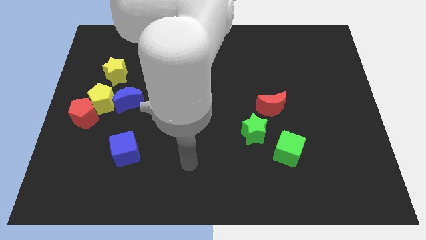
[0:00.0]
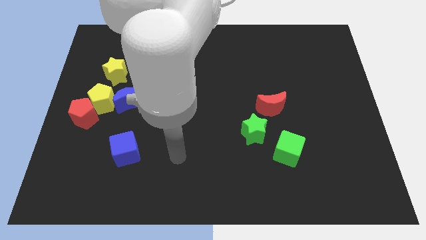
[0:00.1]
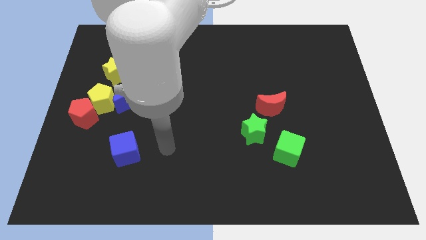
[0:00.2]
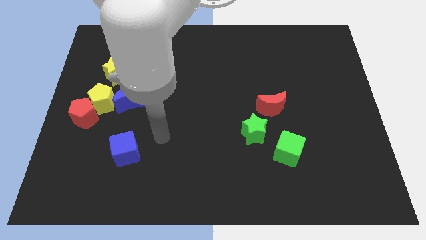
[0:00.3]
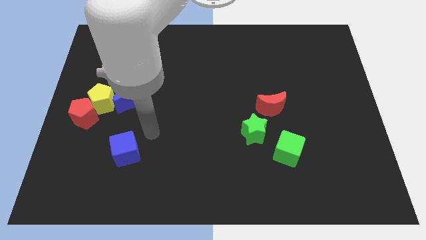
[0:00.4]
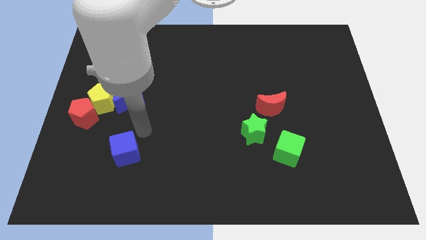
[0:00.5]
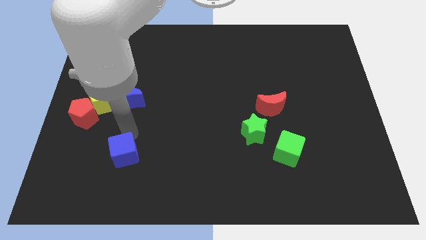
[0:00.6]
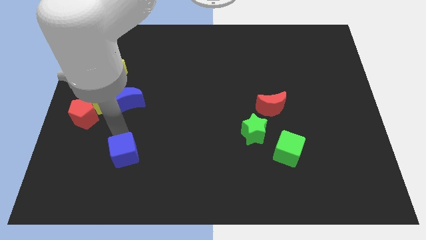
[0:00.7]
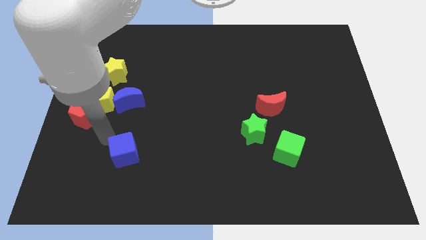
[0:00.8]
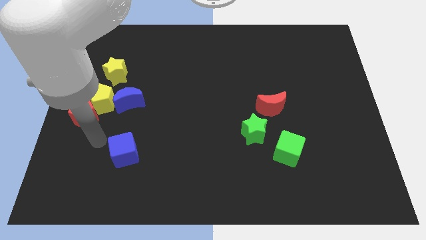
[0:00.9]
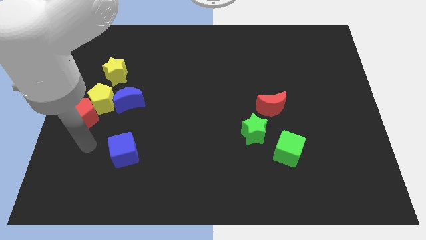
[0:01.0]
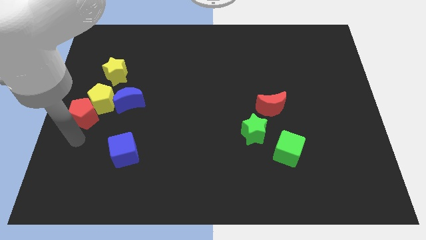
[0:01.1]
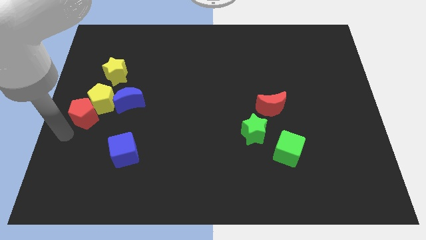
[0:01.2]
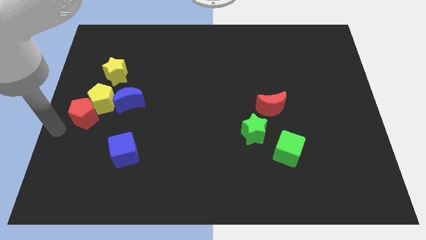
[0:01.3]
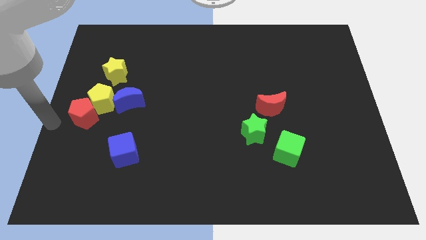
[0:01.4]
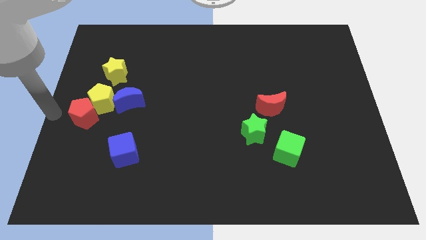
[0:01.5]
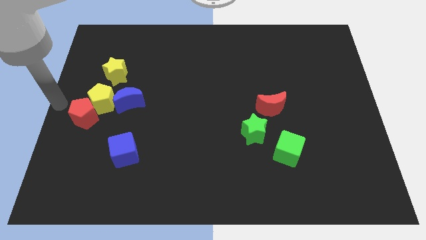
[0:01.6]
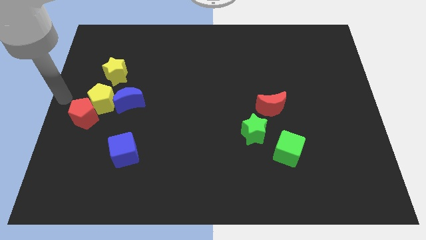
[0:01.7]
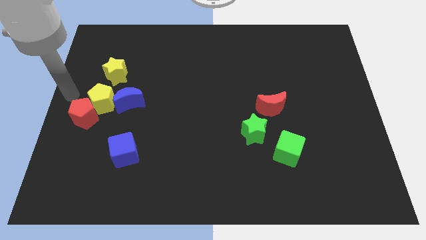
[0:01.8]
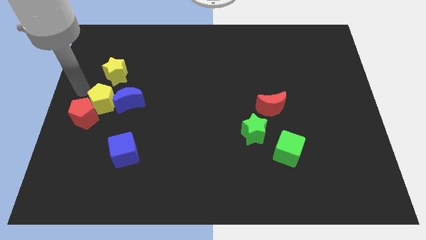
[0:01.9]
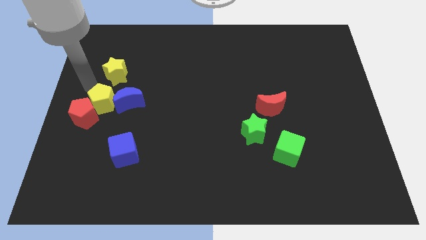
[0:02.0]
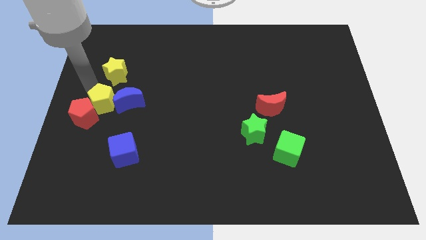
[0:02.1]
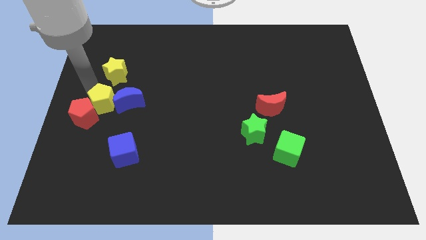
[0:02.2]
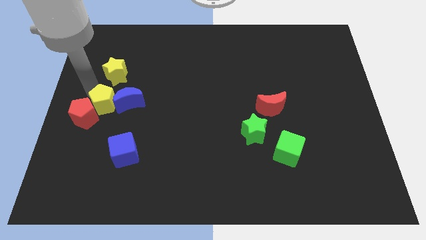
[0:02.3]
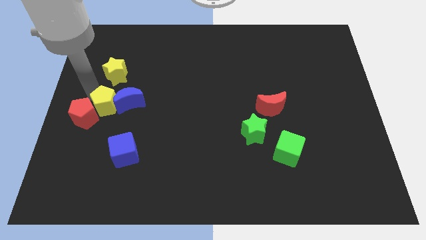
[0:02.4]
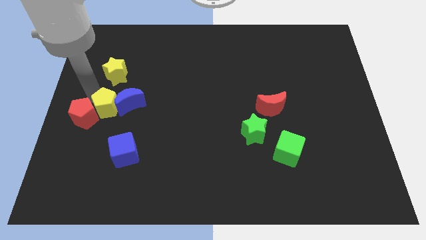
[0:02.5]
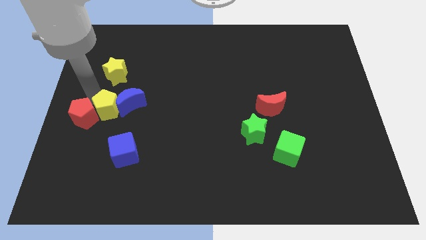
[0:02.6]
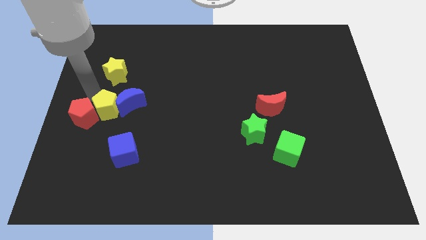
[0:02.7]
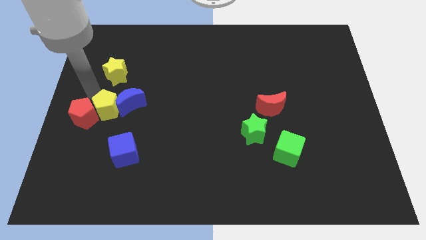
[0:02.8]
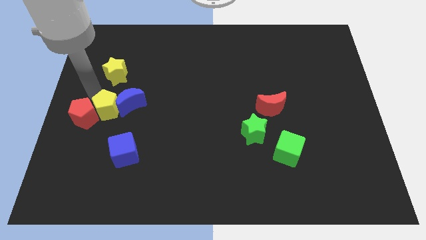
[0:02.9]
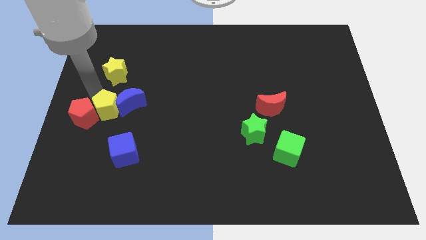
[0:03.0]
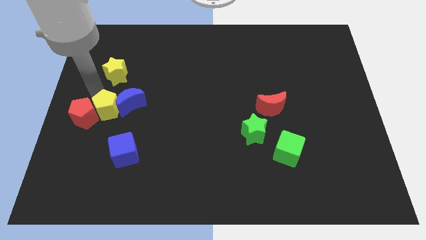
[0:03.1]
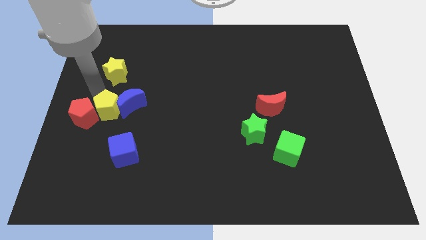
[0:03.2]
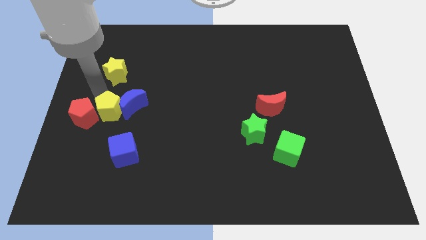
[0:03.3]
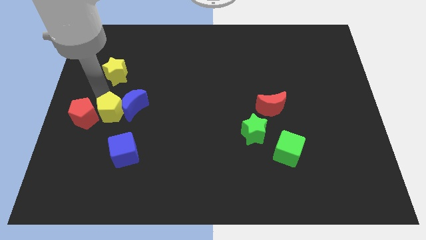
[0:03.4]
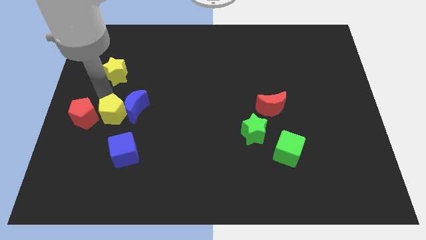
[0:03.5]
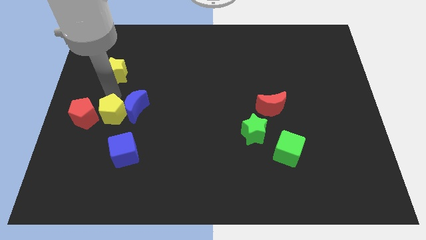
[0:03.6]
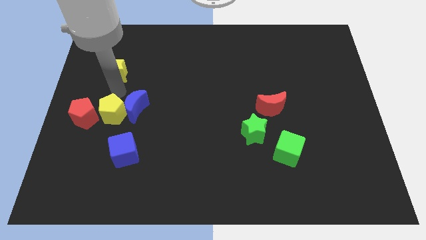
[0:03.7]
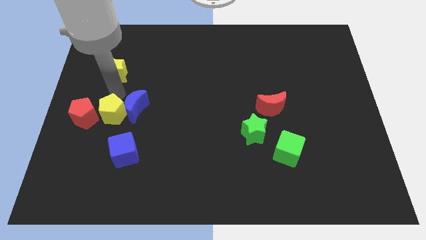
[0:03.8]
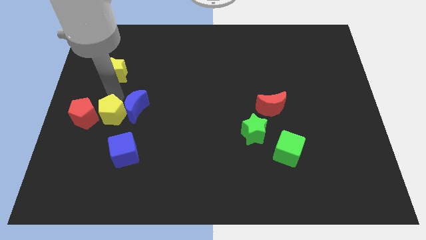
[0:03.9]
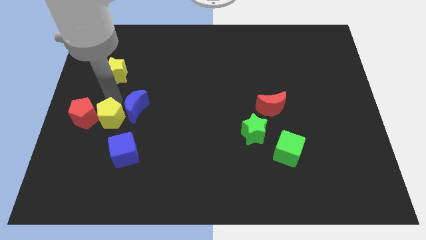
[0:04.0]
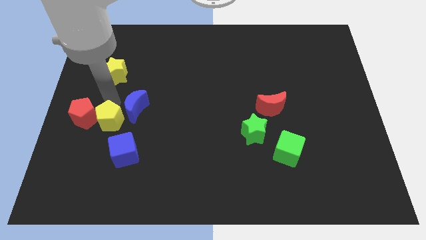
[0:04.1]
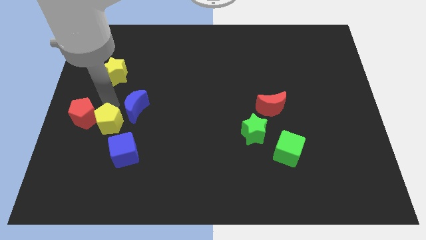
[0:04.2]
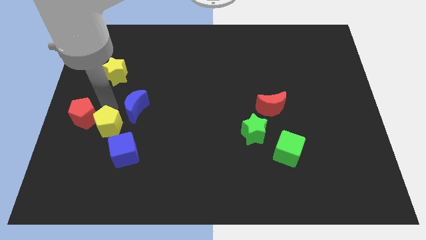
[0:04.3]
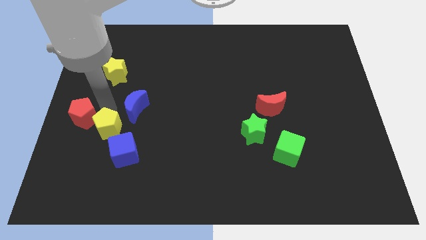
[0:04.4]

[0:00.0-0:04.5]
slide the yellow pentagon somewhat down

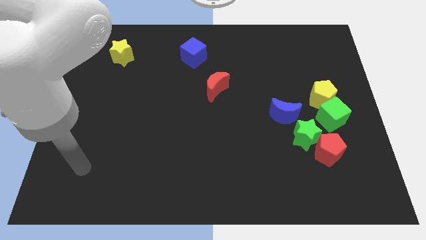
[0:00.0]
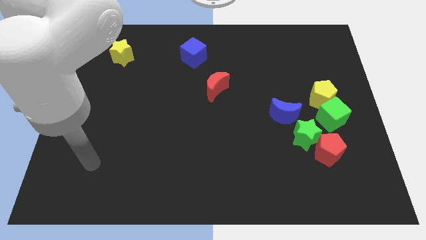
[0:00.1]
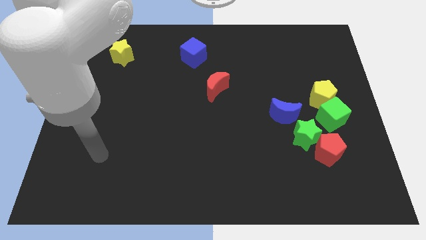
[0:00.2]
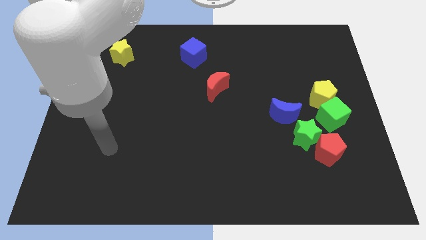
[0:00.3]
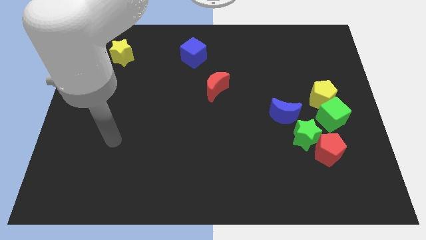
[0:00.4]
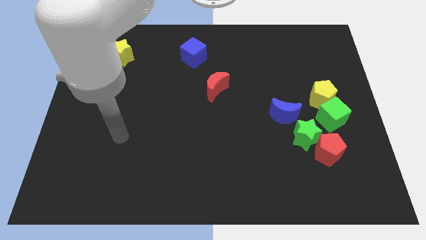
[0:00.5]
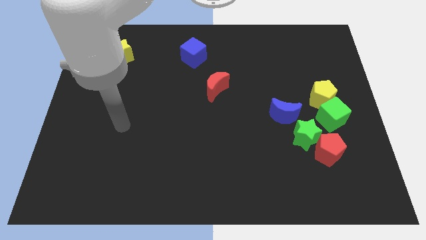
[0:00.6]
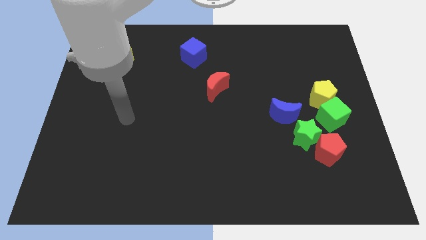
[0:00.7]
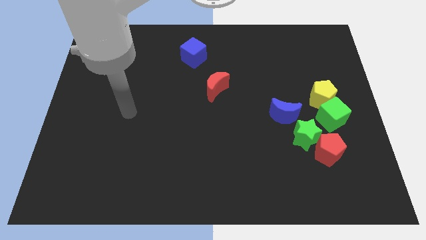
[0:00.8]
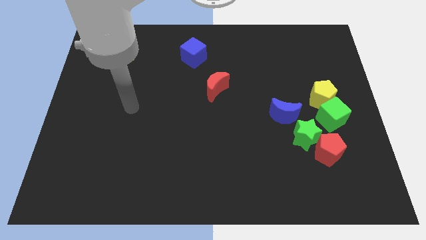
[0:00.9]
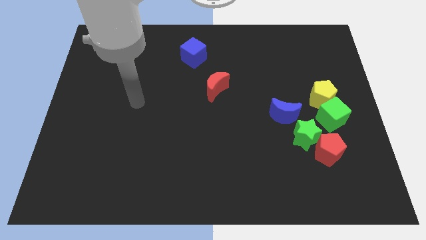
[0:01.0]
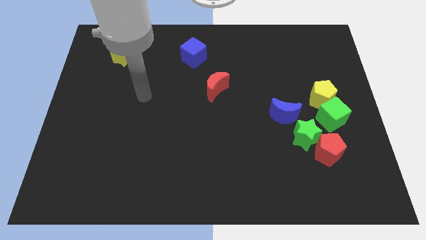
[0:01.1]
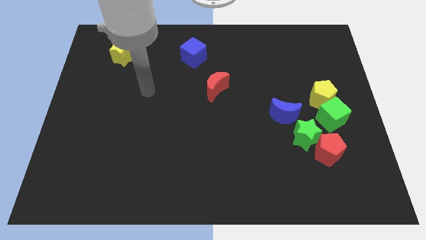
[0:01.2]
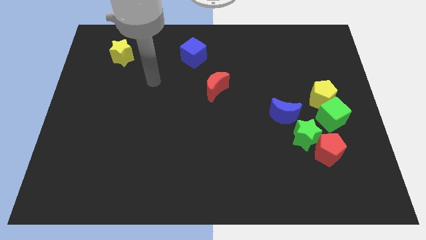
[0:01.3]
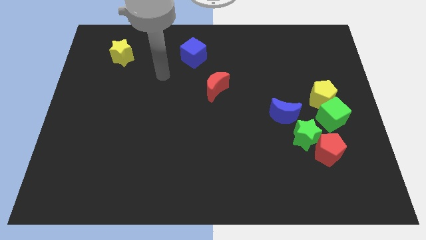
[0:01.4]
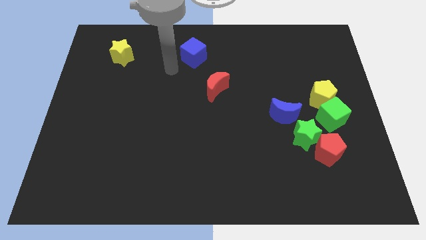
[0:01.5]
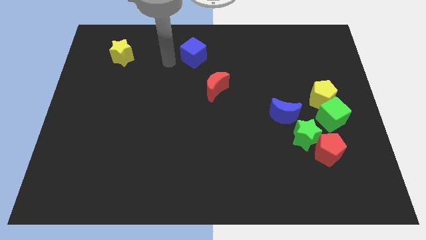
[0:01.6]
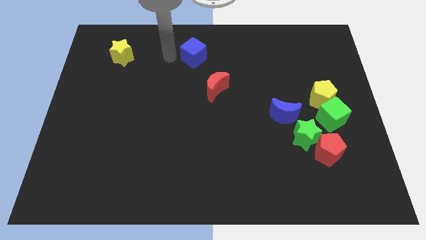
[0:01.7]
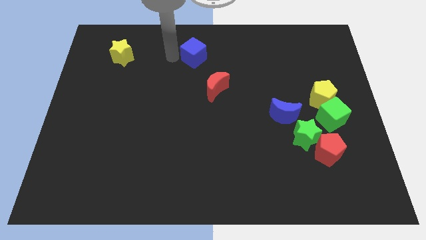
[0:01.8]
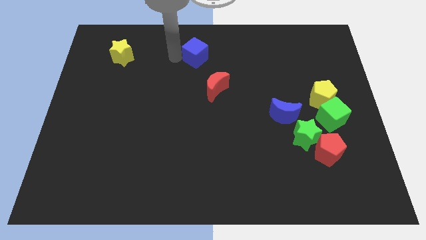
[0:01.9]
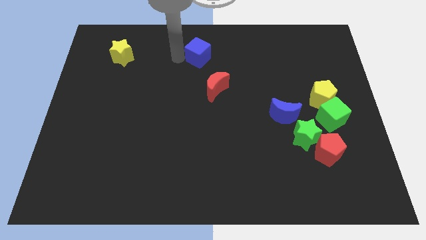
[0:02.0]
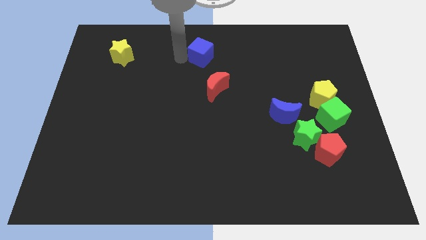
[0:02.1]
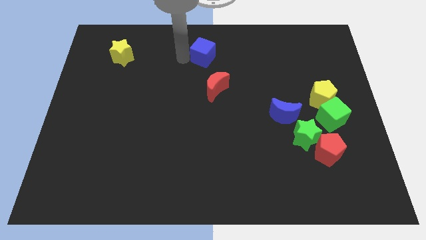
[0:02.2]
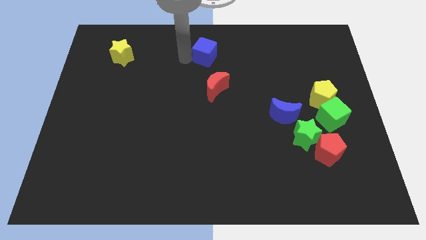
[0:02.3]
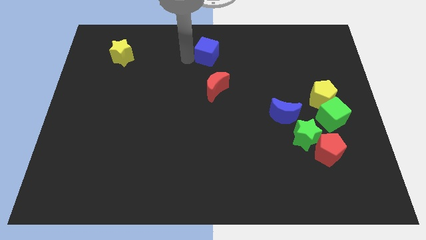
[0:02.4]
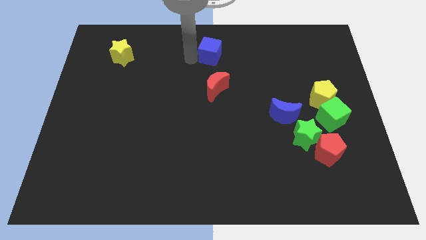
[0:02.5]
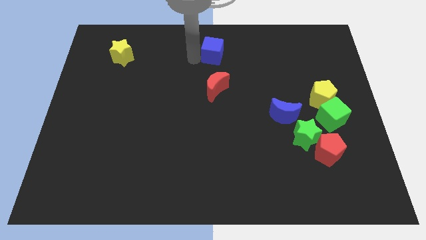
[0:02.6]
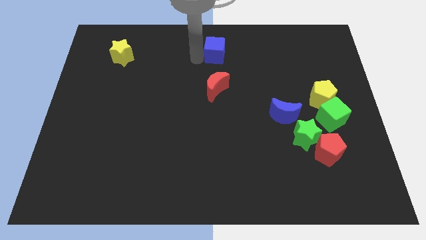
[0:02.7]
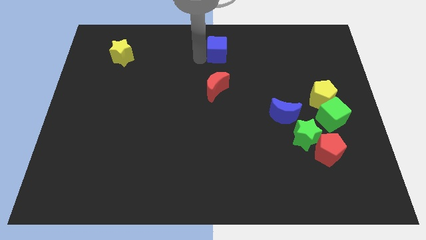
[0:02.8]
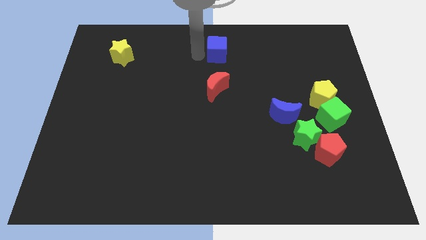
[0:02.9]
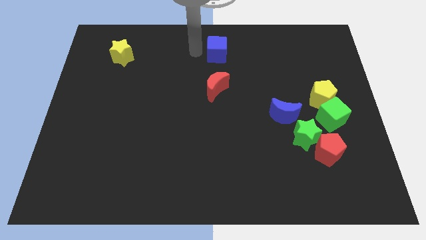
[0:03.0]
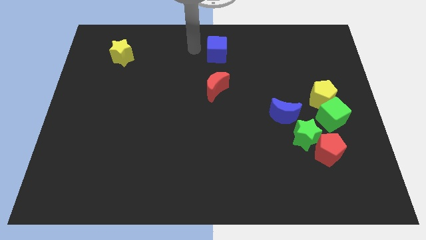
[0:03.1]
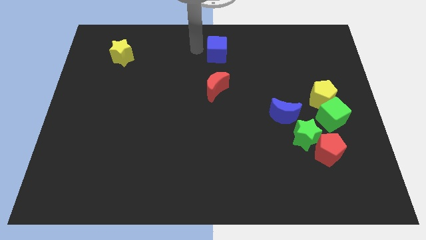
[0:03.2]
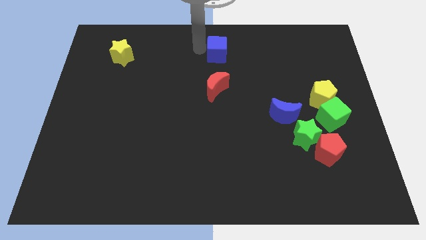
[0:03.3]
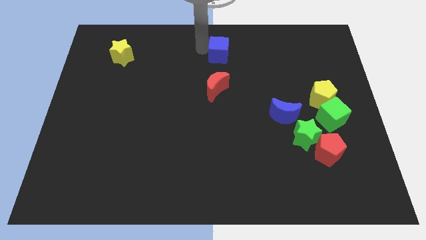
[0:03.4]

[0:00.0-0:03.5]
push the blue cube slightly to the right
